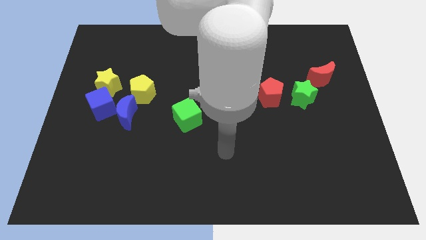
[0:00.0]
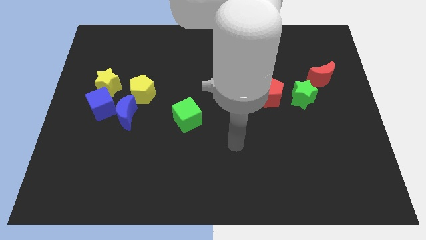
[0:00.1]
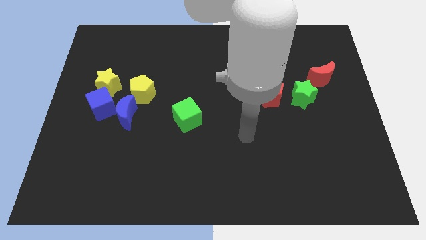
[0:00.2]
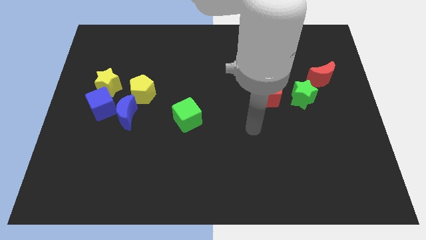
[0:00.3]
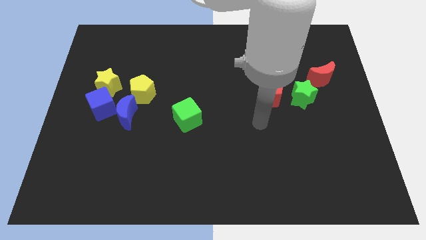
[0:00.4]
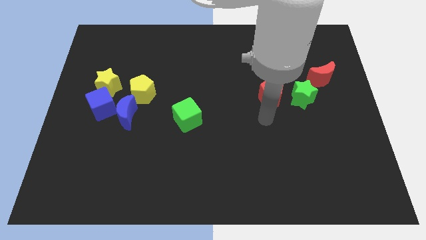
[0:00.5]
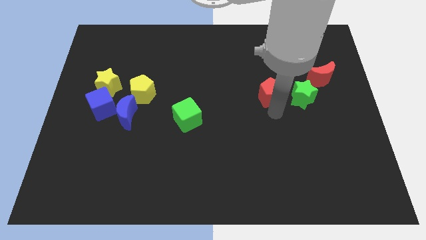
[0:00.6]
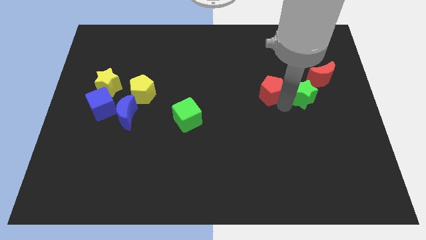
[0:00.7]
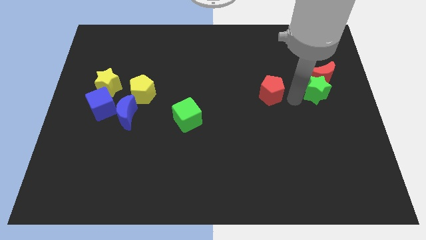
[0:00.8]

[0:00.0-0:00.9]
pull the red pentagon apart from the green star

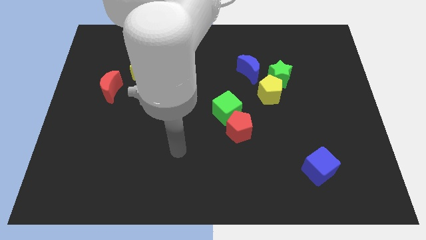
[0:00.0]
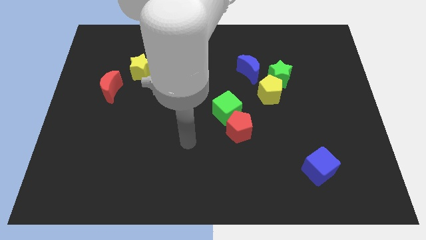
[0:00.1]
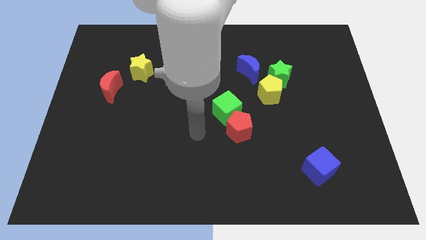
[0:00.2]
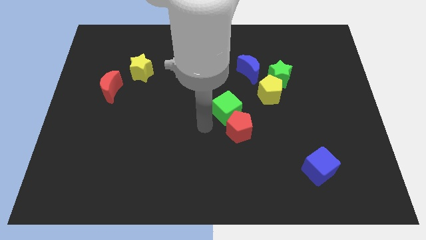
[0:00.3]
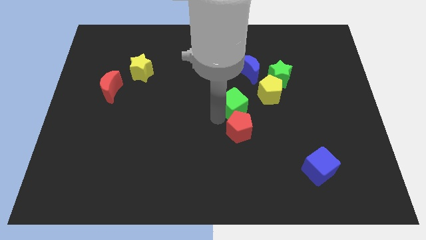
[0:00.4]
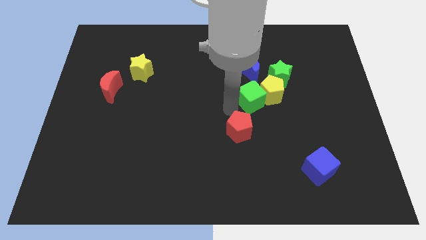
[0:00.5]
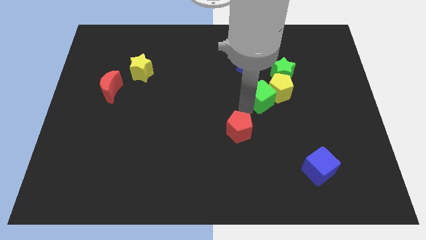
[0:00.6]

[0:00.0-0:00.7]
move the red pentagon away from the green cube

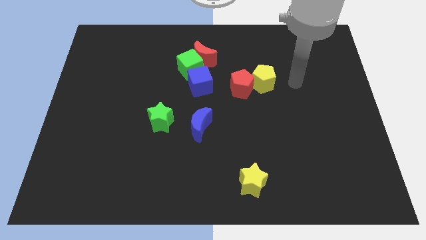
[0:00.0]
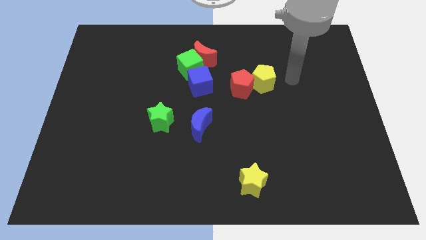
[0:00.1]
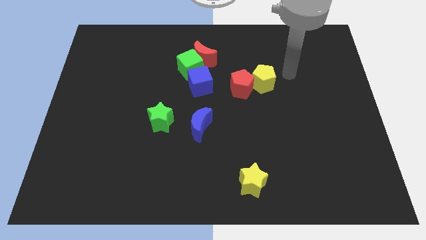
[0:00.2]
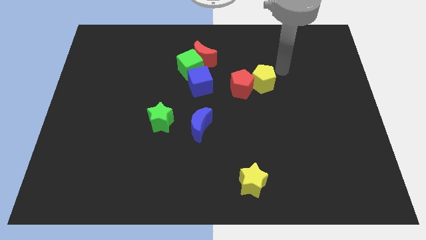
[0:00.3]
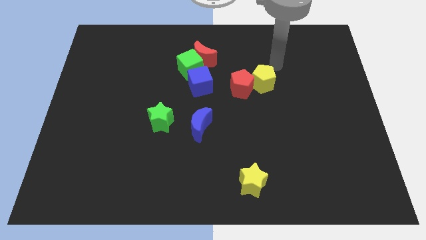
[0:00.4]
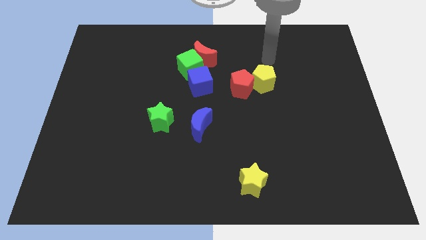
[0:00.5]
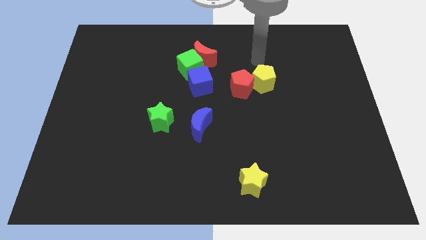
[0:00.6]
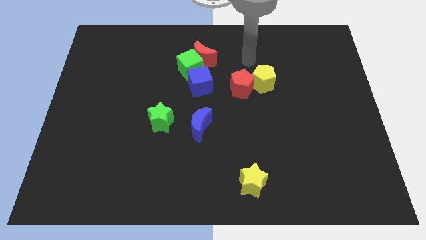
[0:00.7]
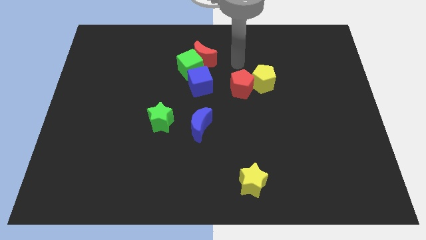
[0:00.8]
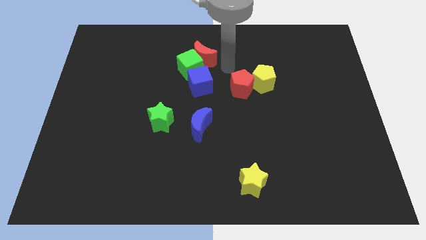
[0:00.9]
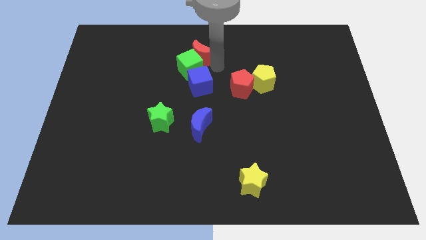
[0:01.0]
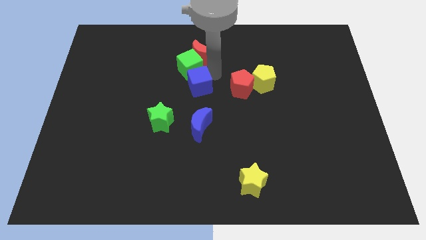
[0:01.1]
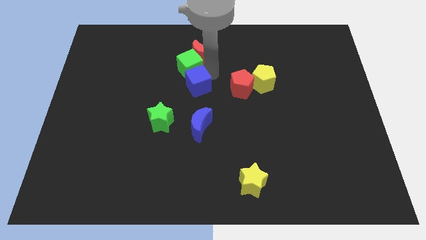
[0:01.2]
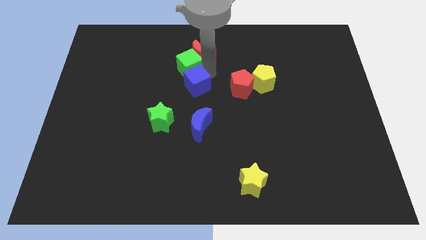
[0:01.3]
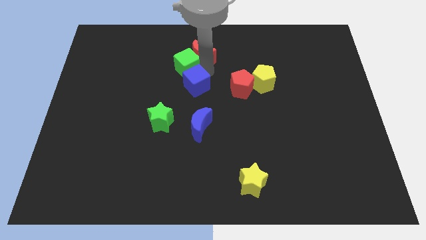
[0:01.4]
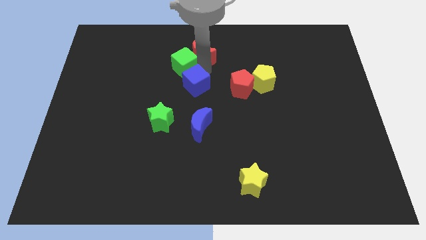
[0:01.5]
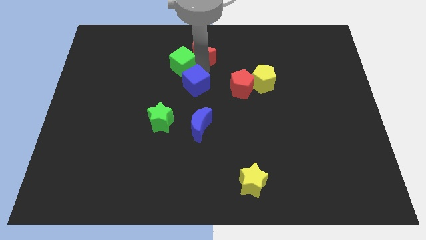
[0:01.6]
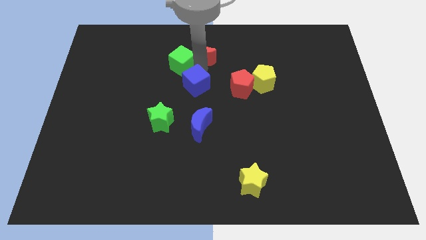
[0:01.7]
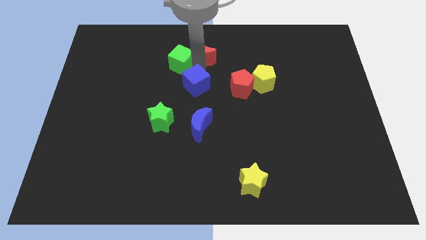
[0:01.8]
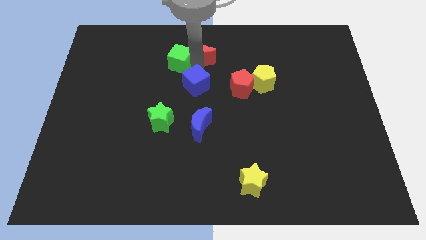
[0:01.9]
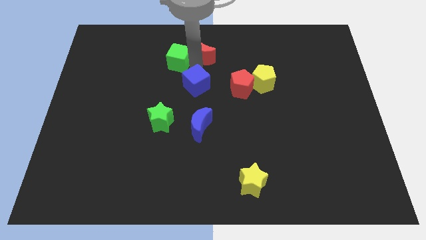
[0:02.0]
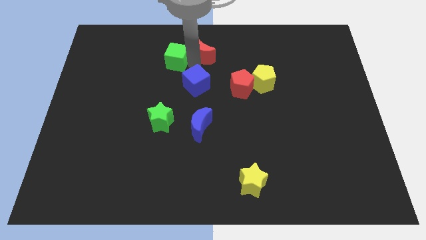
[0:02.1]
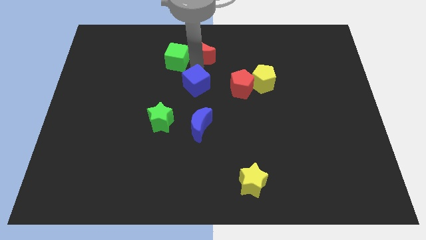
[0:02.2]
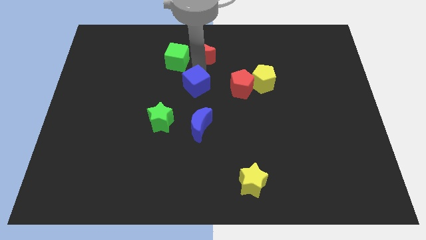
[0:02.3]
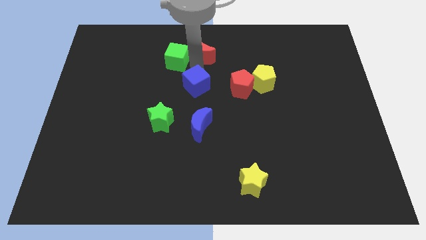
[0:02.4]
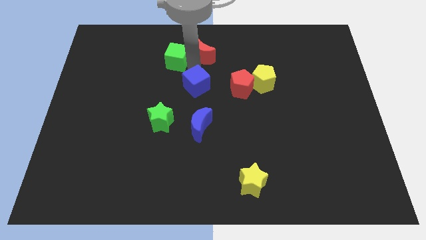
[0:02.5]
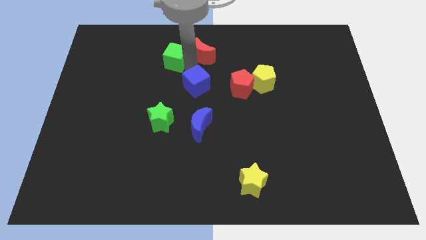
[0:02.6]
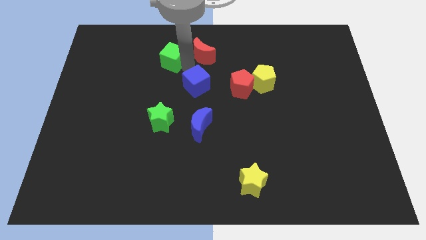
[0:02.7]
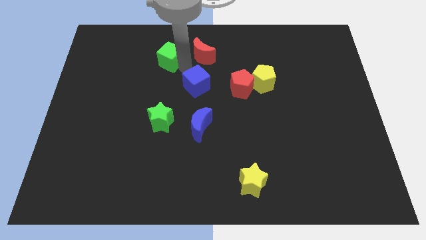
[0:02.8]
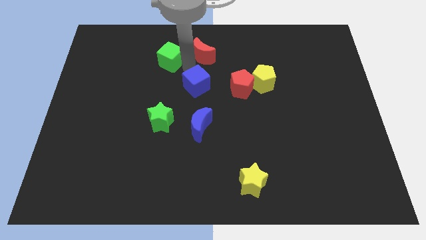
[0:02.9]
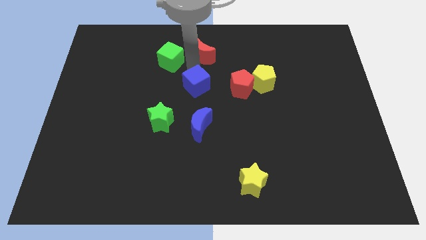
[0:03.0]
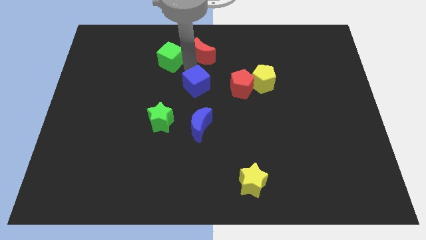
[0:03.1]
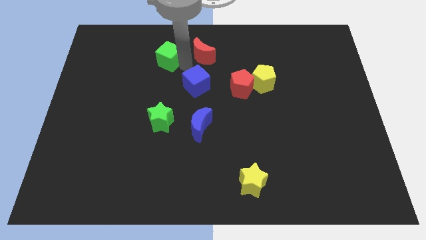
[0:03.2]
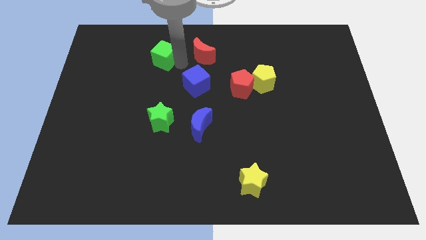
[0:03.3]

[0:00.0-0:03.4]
separate the green cube from the red moon and blue cube

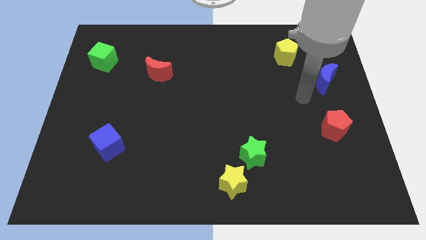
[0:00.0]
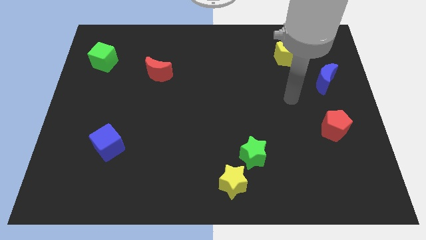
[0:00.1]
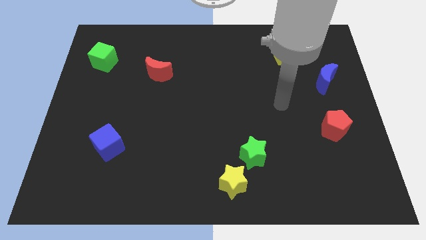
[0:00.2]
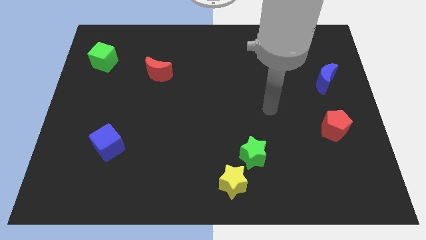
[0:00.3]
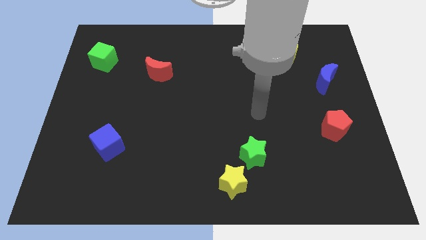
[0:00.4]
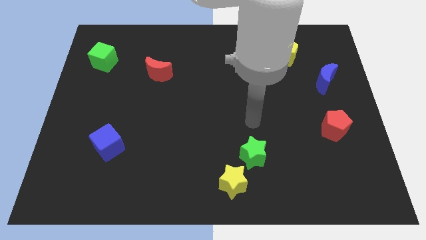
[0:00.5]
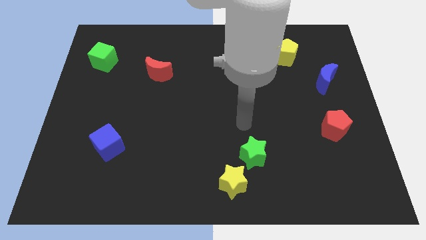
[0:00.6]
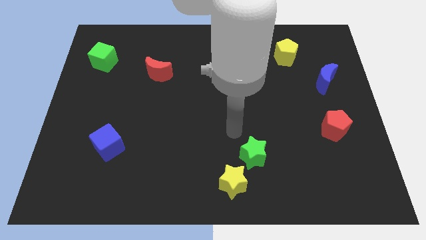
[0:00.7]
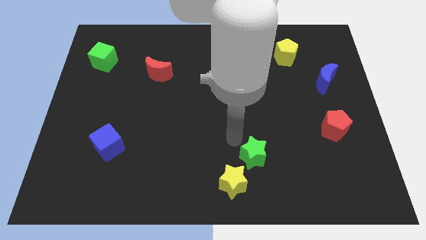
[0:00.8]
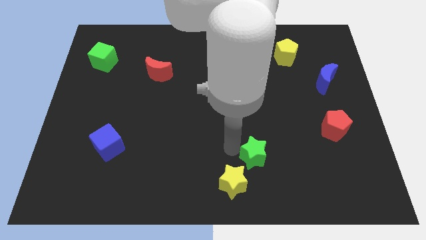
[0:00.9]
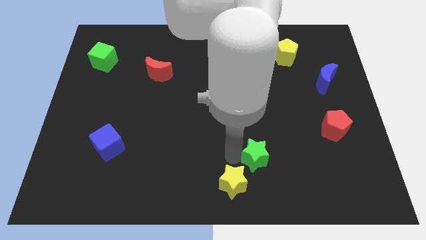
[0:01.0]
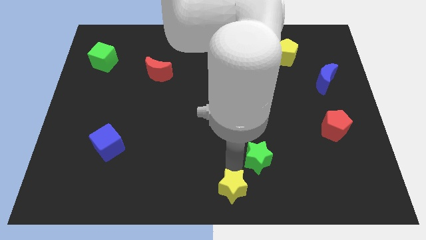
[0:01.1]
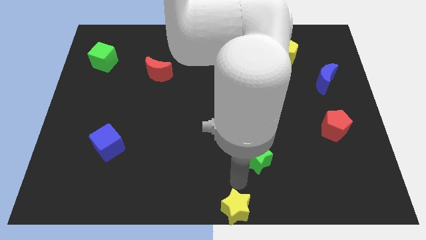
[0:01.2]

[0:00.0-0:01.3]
pull the green star apart from the yellow star

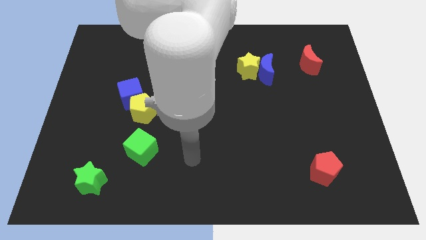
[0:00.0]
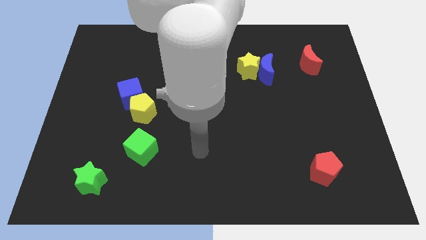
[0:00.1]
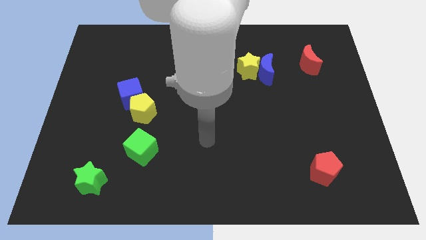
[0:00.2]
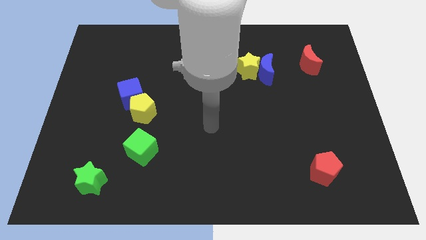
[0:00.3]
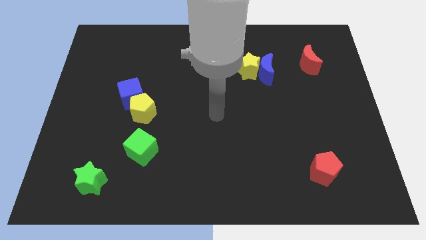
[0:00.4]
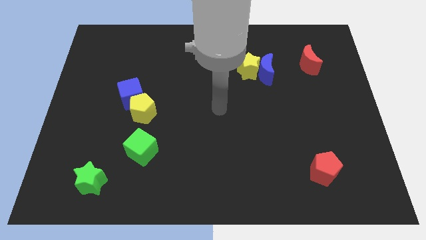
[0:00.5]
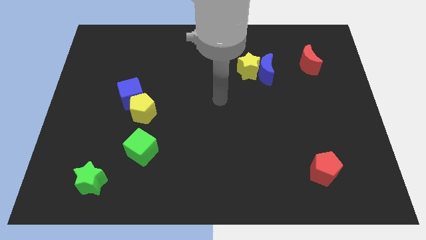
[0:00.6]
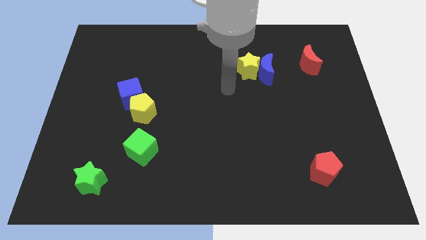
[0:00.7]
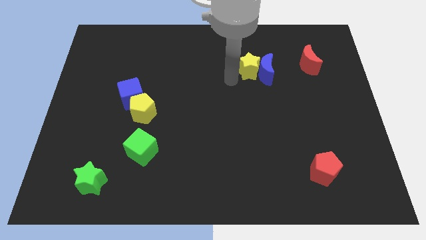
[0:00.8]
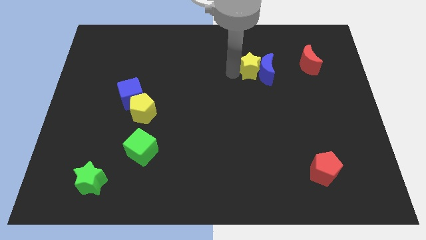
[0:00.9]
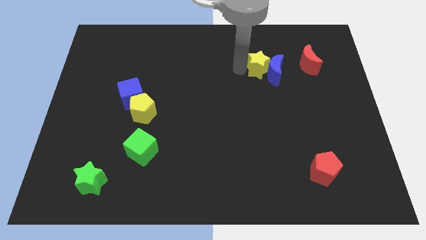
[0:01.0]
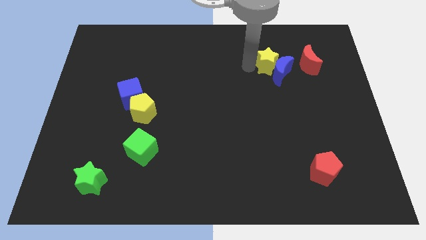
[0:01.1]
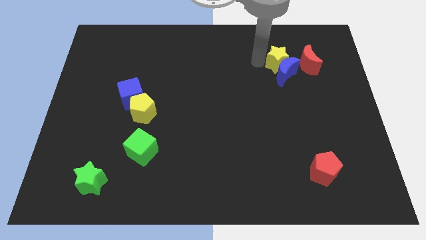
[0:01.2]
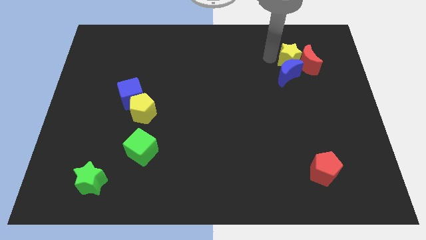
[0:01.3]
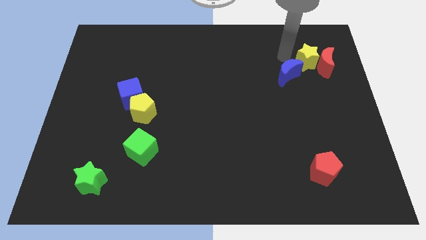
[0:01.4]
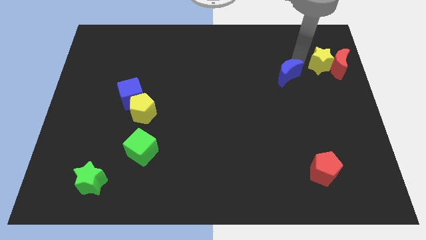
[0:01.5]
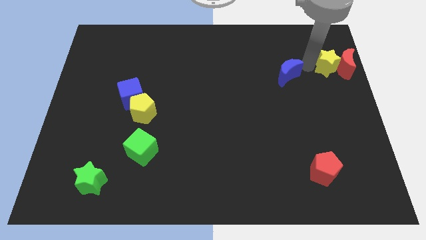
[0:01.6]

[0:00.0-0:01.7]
move the blue moon away from the yellow star

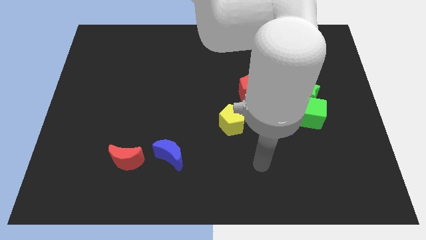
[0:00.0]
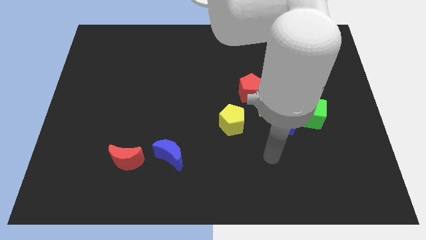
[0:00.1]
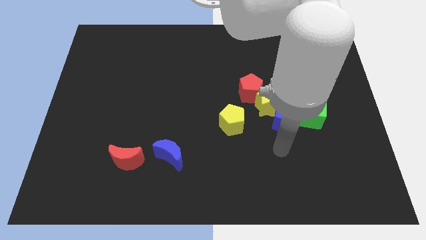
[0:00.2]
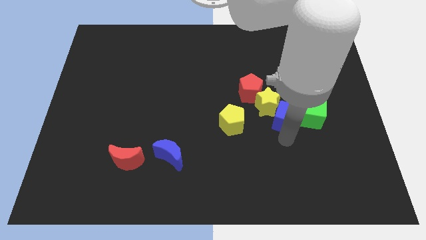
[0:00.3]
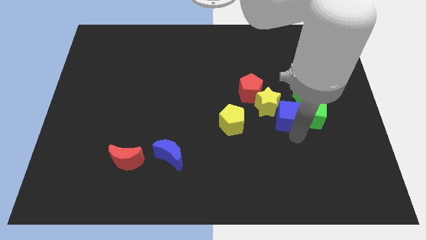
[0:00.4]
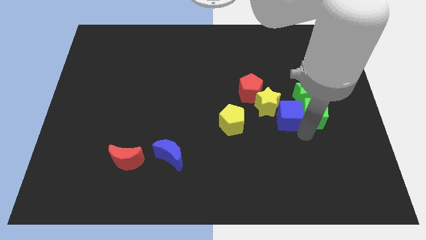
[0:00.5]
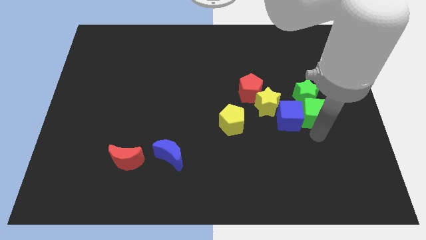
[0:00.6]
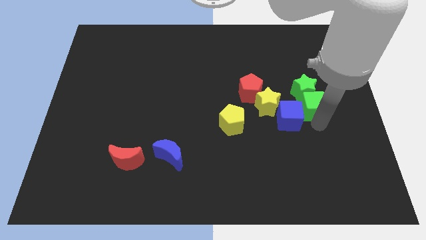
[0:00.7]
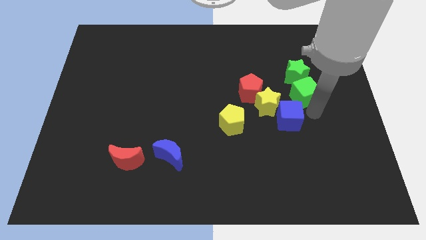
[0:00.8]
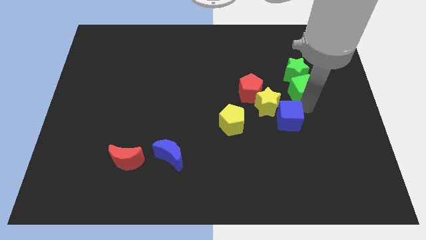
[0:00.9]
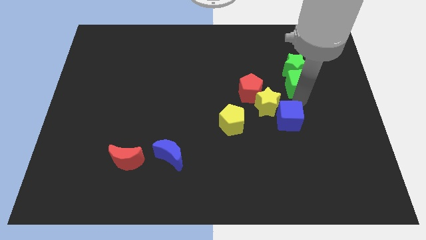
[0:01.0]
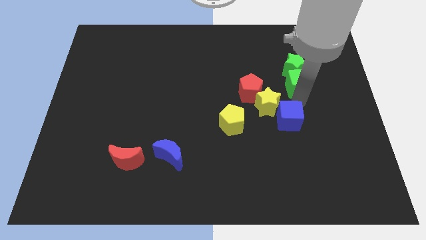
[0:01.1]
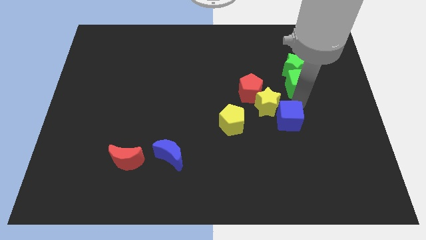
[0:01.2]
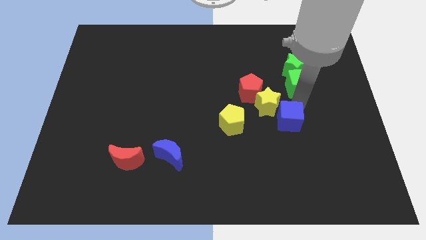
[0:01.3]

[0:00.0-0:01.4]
move the blue cube away from the yellow star, green cube, and green star
